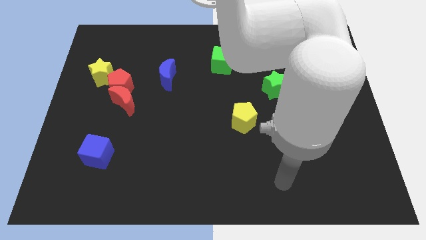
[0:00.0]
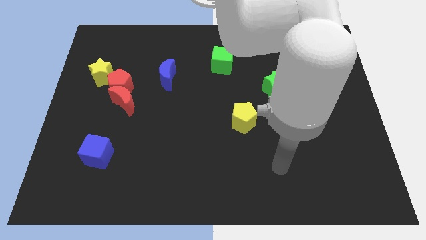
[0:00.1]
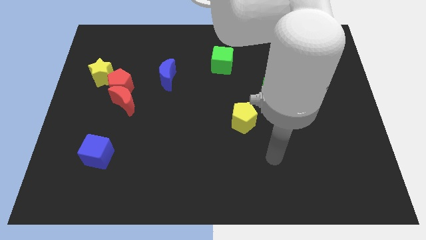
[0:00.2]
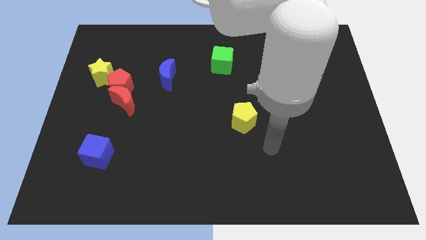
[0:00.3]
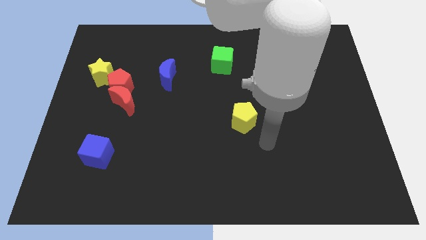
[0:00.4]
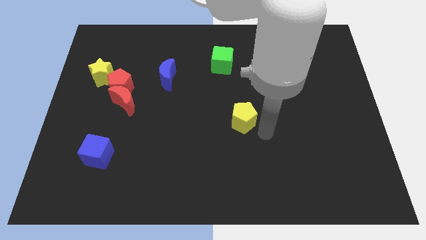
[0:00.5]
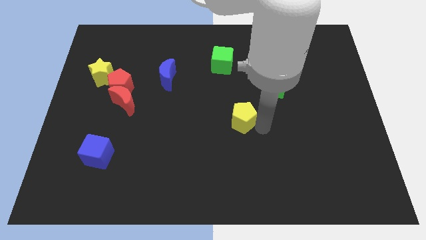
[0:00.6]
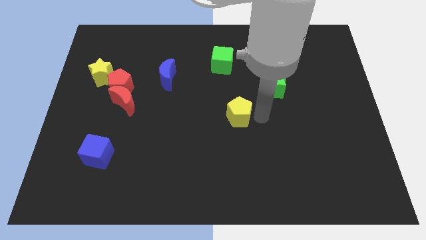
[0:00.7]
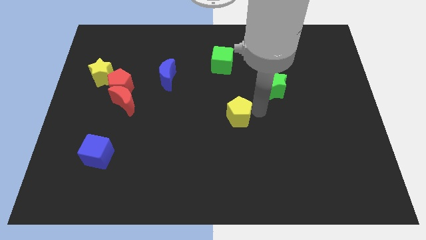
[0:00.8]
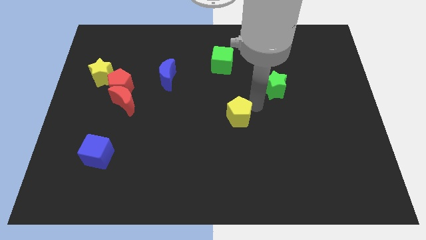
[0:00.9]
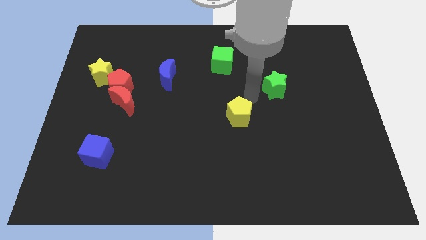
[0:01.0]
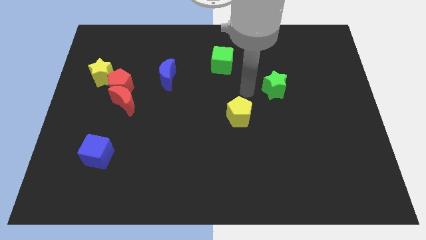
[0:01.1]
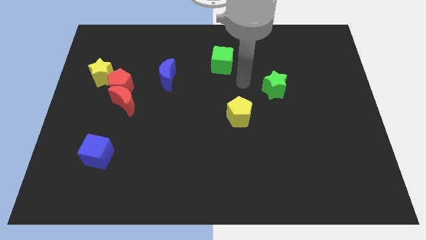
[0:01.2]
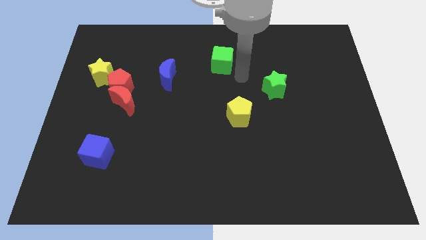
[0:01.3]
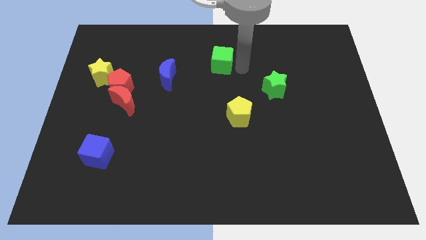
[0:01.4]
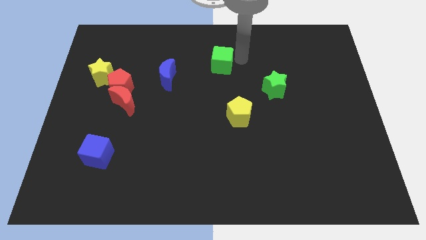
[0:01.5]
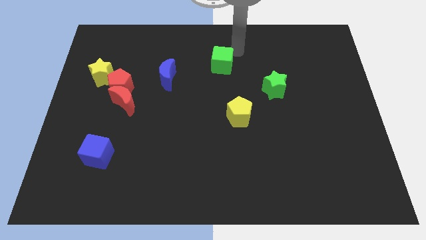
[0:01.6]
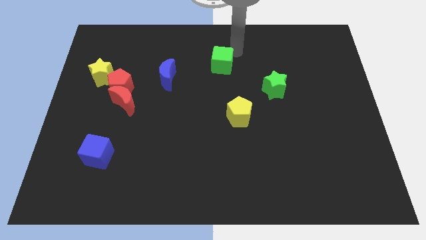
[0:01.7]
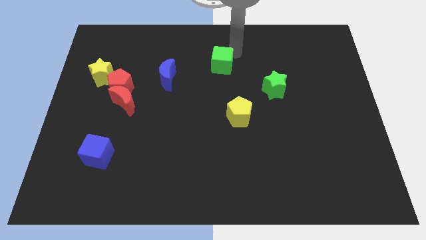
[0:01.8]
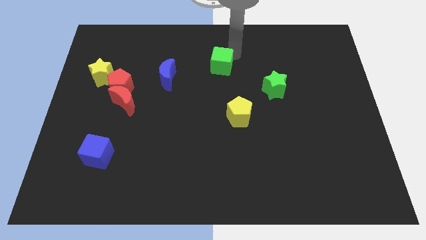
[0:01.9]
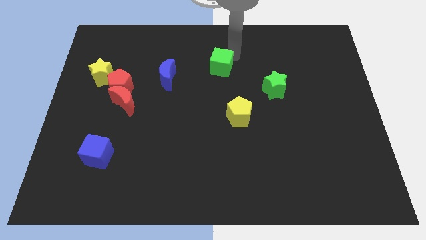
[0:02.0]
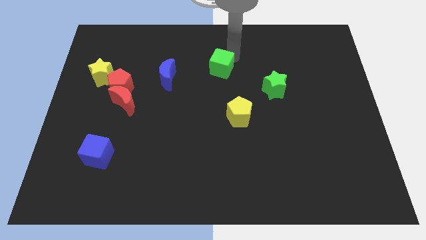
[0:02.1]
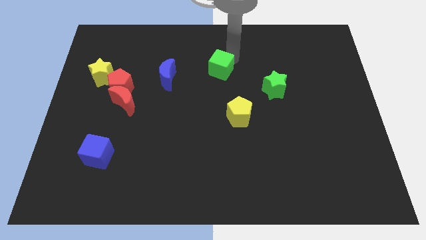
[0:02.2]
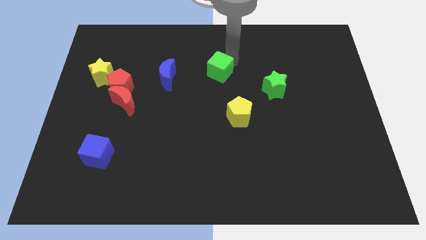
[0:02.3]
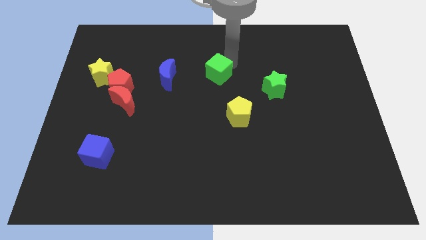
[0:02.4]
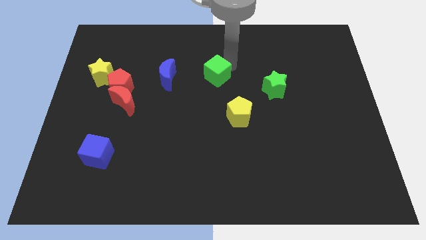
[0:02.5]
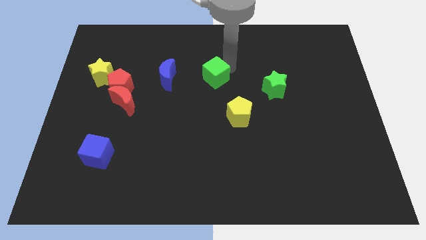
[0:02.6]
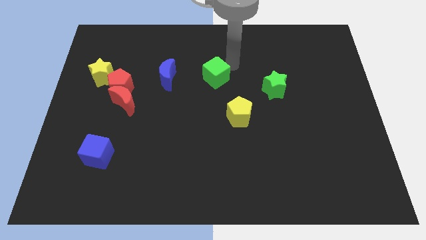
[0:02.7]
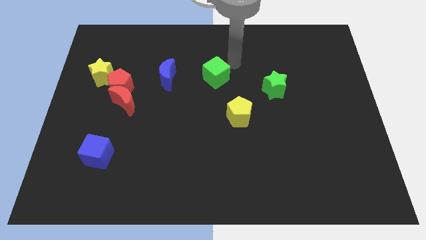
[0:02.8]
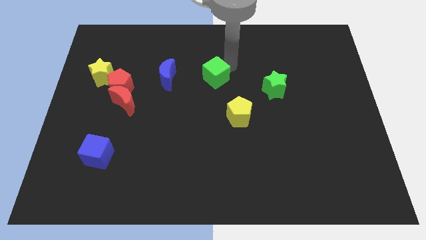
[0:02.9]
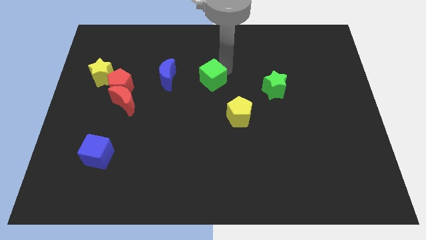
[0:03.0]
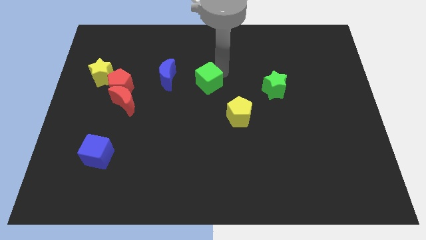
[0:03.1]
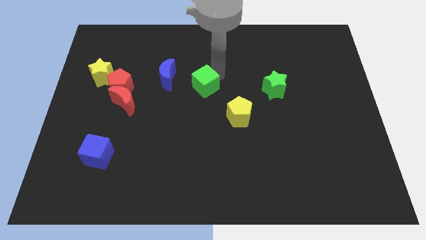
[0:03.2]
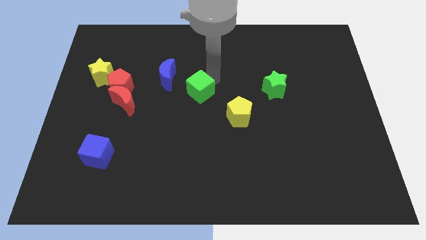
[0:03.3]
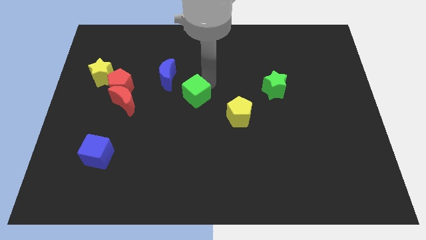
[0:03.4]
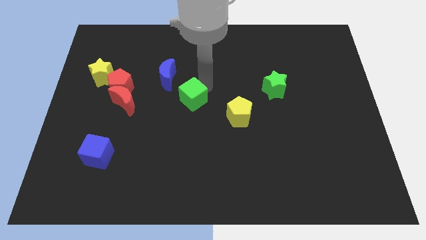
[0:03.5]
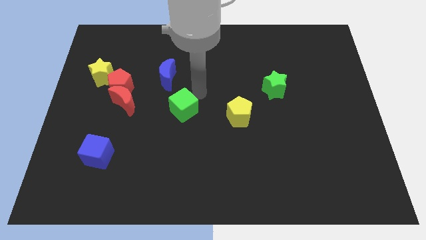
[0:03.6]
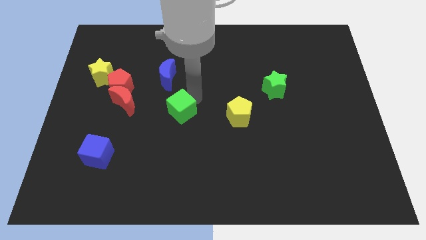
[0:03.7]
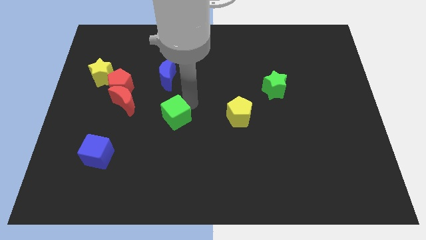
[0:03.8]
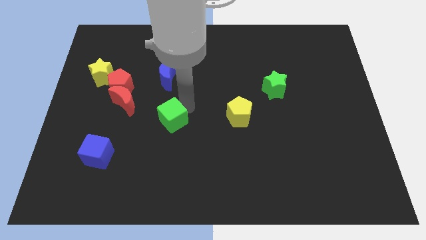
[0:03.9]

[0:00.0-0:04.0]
slide the green cube downwards and left diagonally

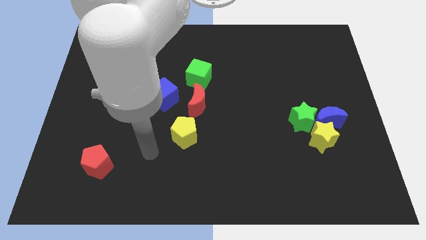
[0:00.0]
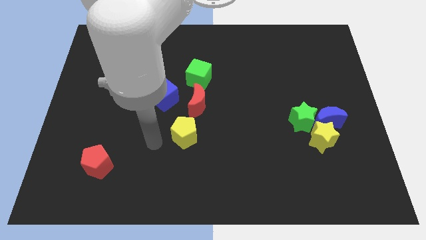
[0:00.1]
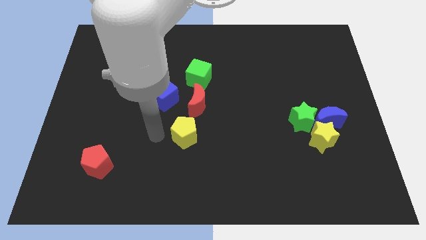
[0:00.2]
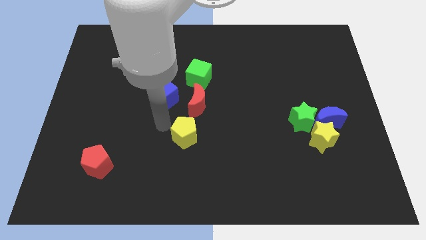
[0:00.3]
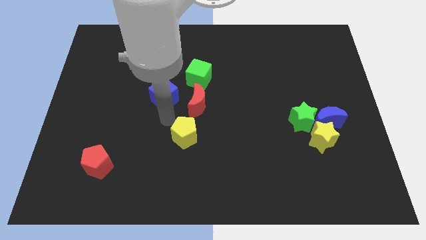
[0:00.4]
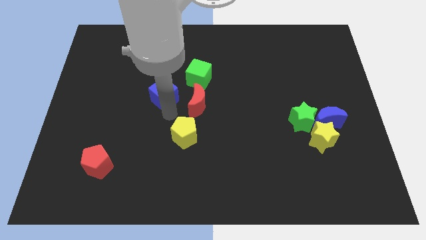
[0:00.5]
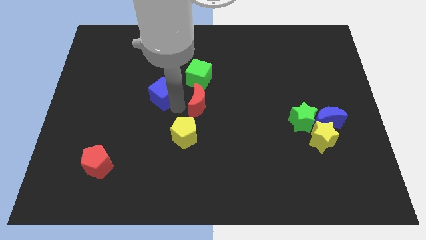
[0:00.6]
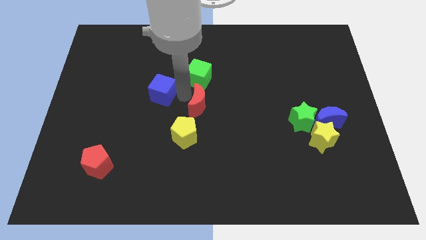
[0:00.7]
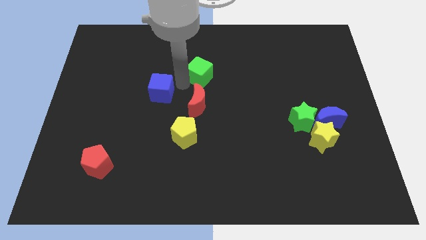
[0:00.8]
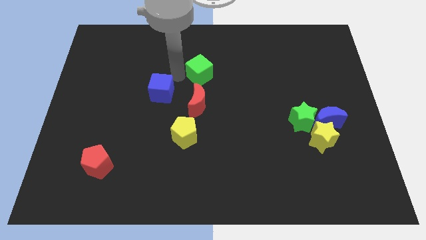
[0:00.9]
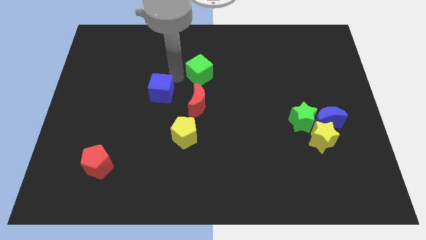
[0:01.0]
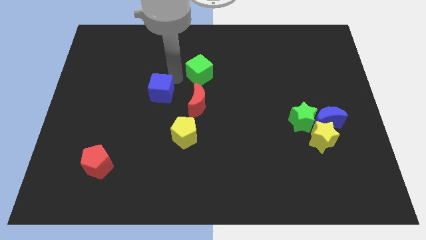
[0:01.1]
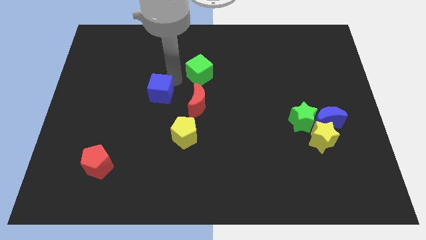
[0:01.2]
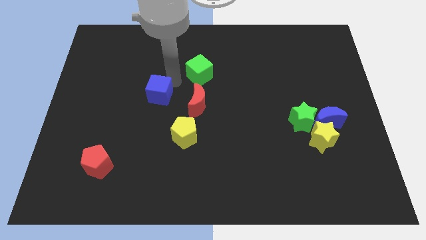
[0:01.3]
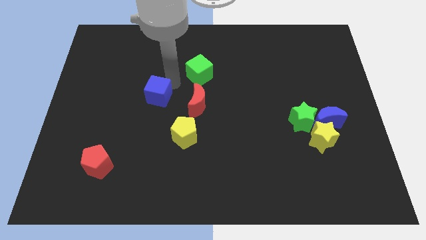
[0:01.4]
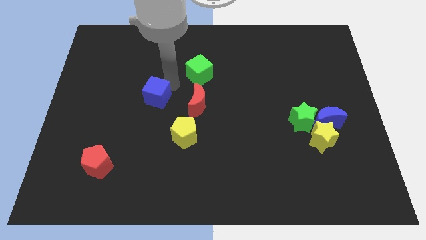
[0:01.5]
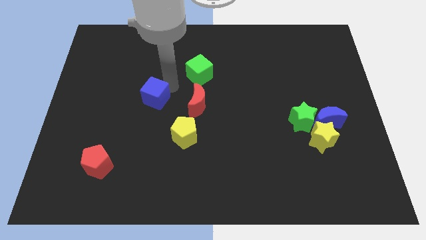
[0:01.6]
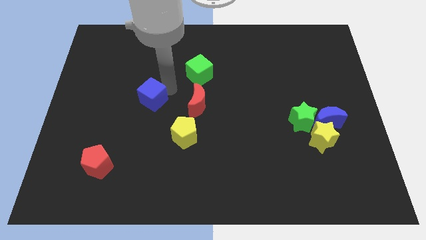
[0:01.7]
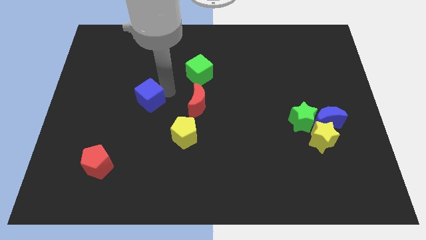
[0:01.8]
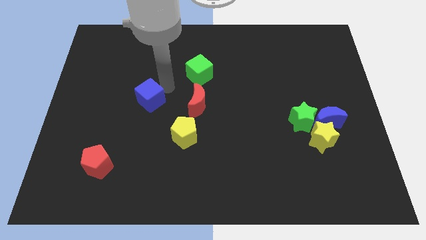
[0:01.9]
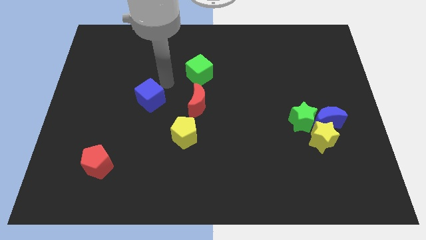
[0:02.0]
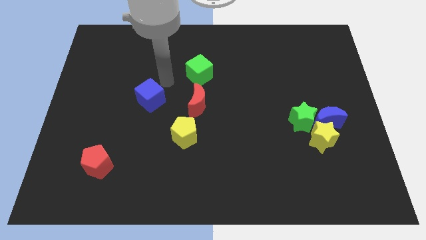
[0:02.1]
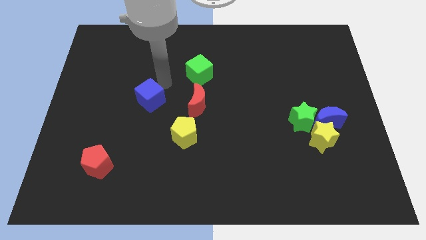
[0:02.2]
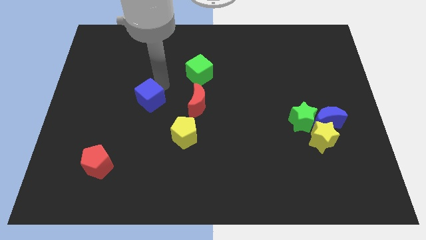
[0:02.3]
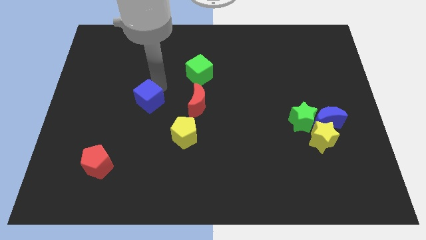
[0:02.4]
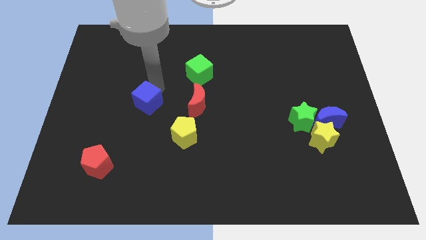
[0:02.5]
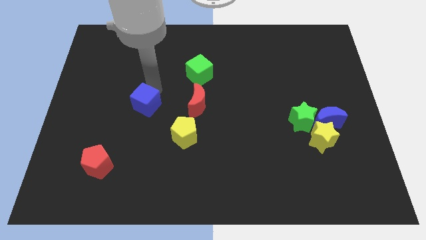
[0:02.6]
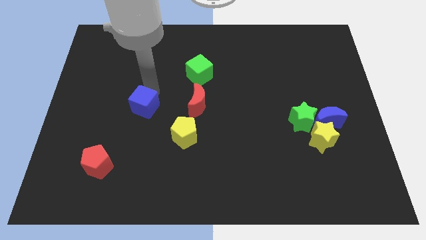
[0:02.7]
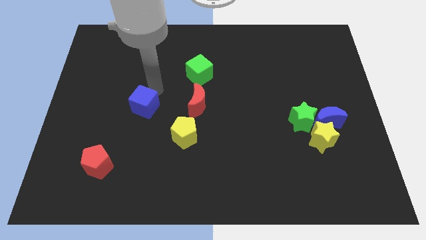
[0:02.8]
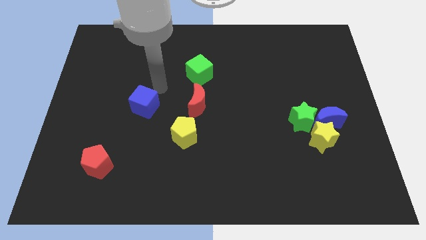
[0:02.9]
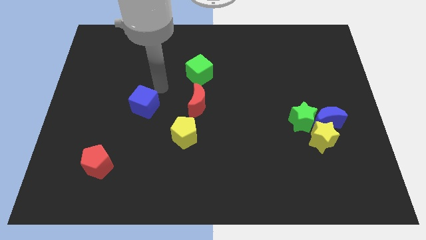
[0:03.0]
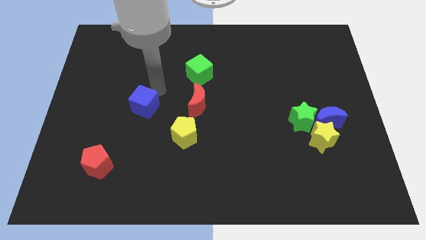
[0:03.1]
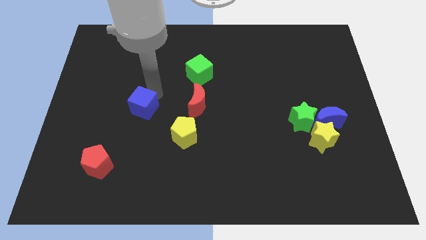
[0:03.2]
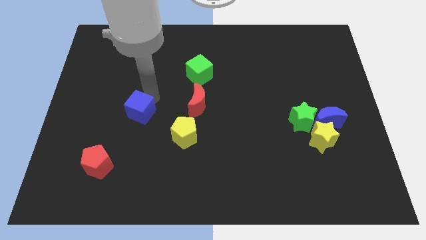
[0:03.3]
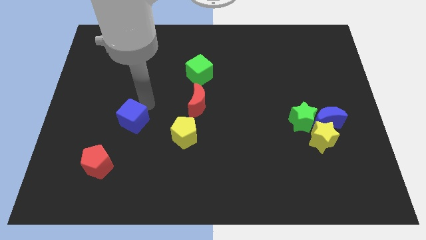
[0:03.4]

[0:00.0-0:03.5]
slightly push the blue cube down and left diagonally

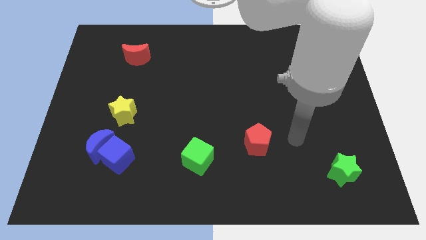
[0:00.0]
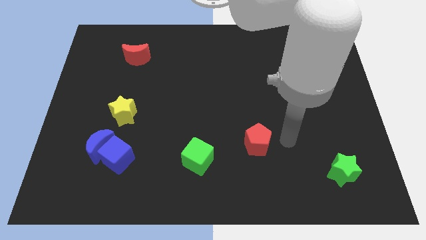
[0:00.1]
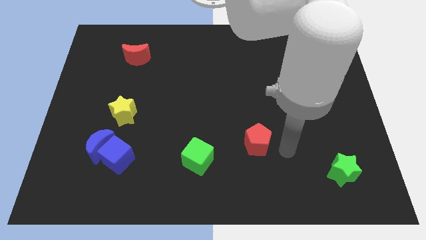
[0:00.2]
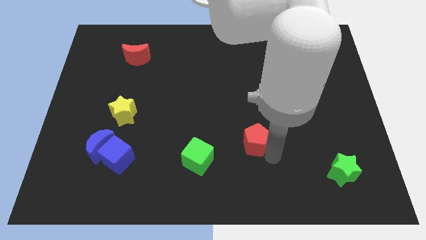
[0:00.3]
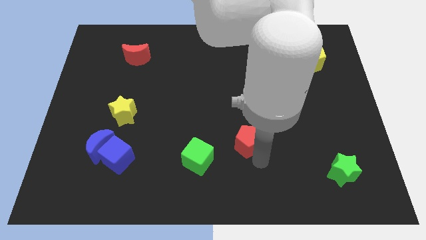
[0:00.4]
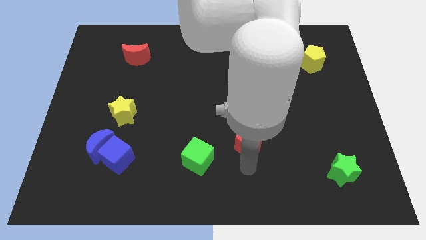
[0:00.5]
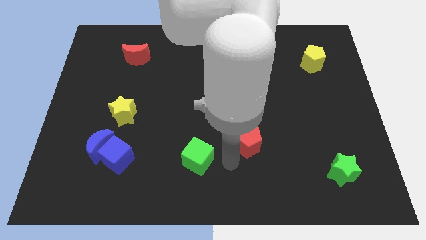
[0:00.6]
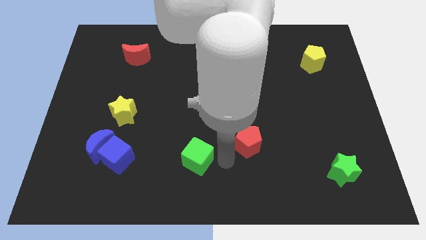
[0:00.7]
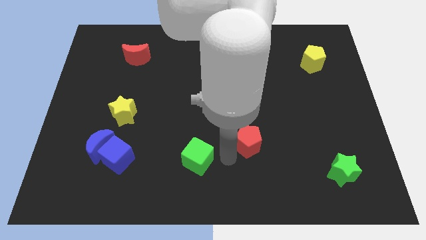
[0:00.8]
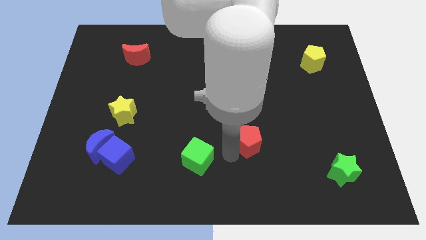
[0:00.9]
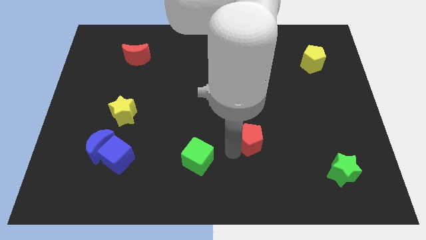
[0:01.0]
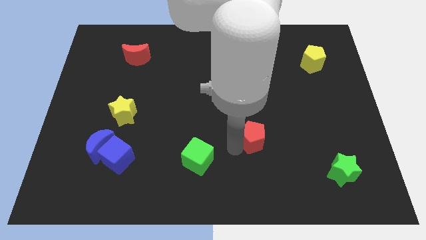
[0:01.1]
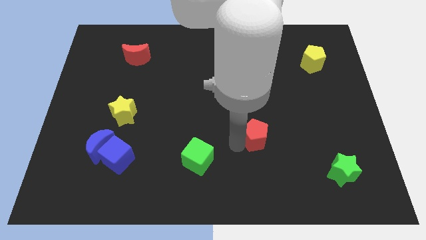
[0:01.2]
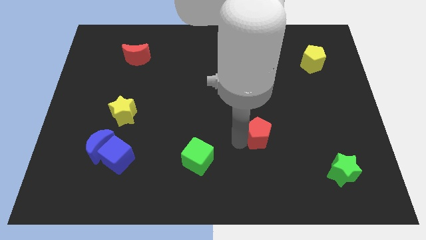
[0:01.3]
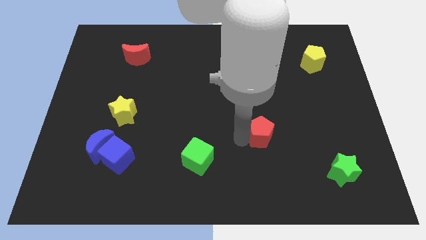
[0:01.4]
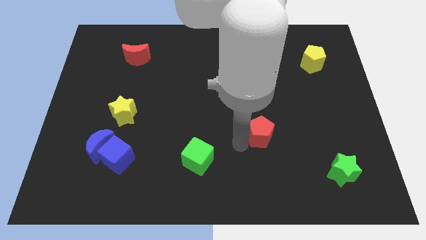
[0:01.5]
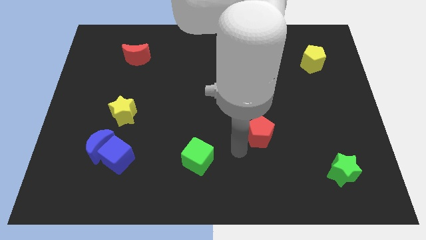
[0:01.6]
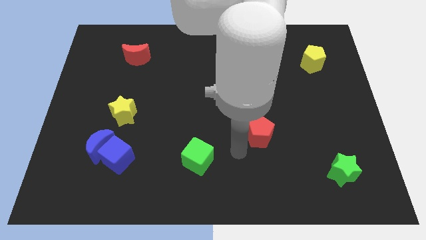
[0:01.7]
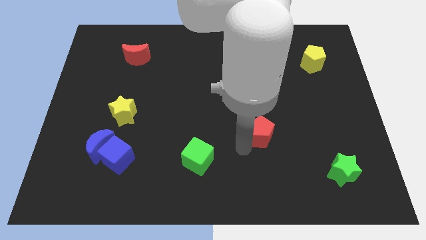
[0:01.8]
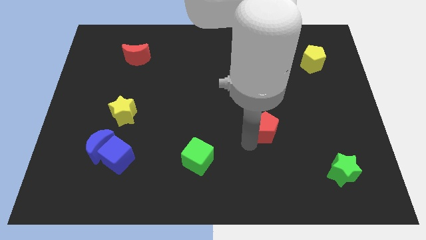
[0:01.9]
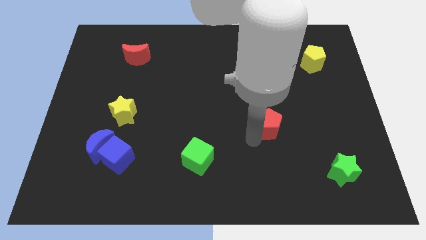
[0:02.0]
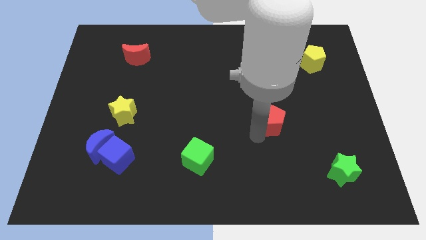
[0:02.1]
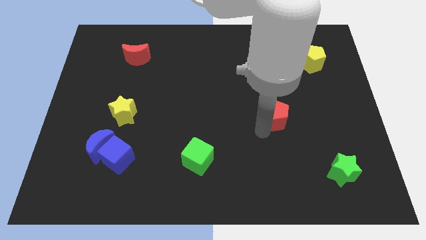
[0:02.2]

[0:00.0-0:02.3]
slide the red pentagon a little up and right diagonally
